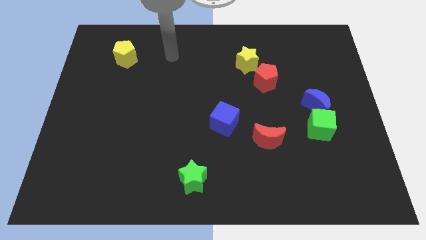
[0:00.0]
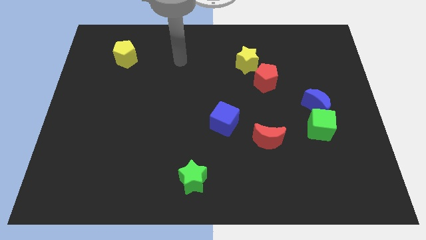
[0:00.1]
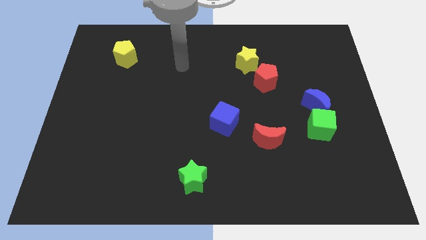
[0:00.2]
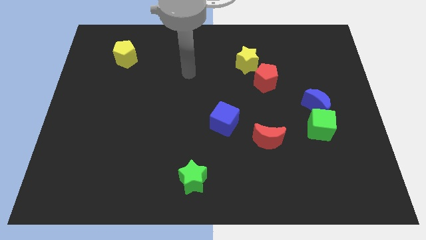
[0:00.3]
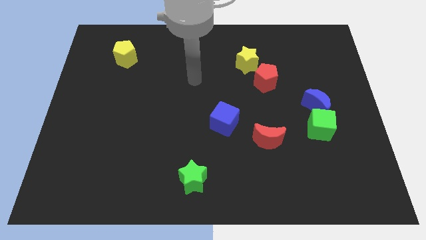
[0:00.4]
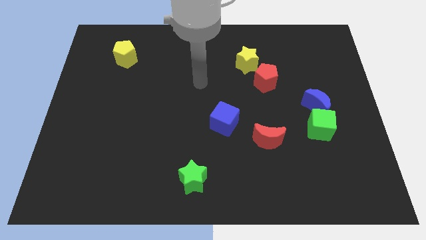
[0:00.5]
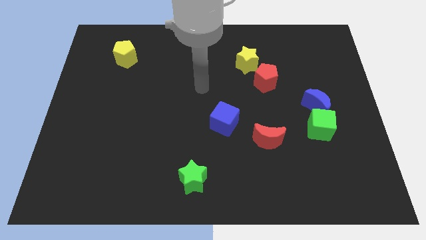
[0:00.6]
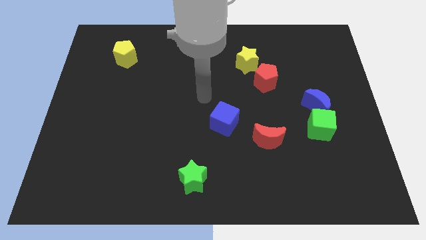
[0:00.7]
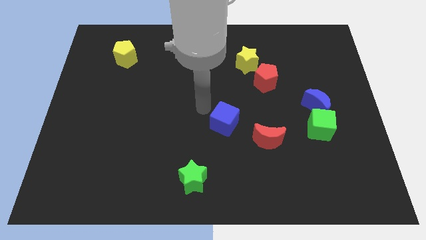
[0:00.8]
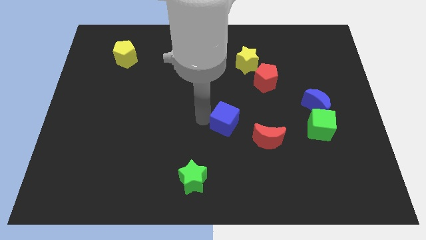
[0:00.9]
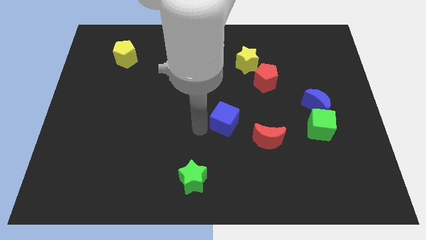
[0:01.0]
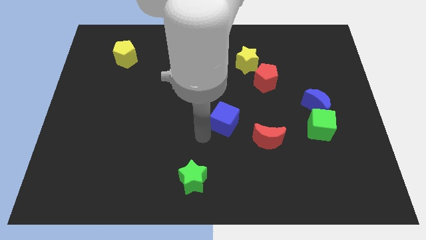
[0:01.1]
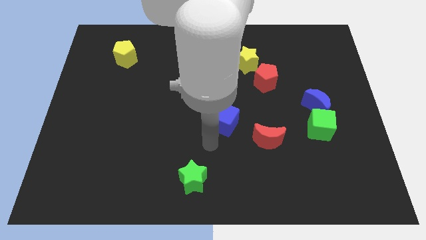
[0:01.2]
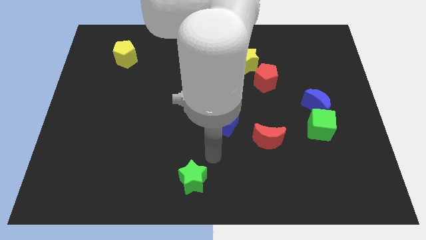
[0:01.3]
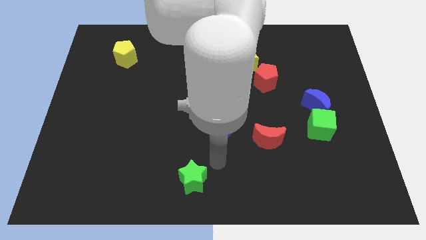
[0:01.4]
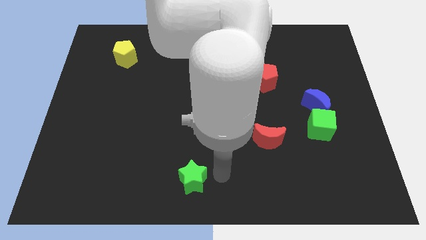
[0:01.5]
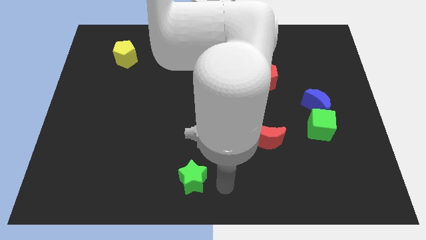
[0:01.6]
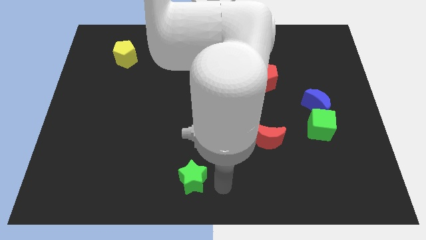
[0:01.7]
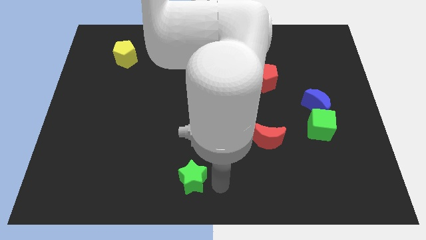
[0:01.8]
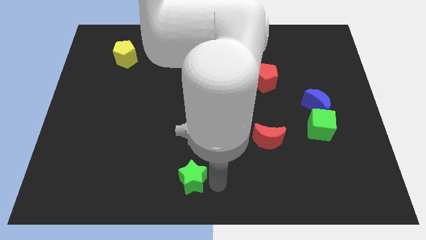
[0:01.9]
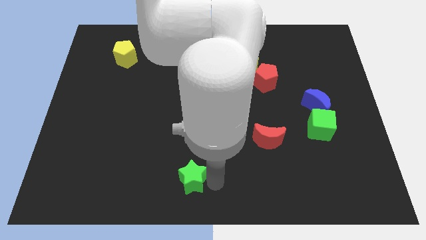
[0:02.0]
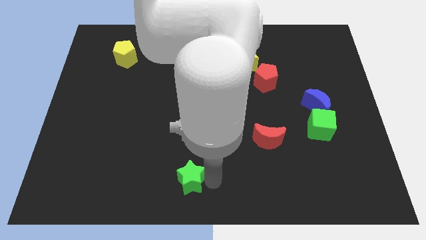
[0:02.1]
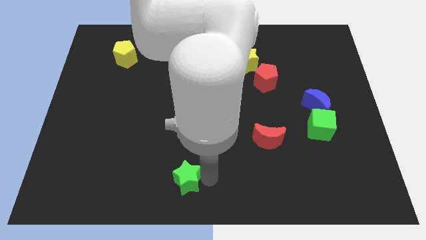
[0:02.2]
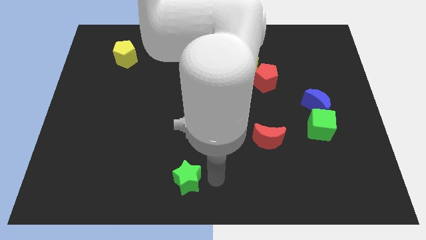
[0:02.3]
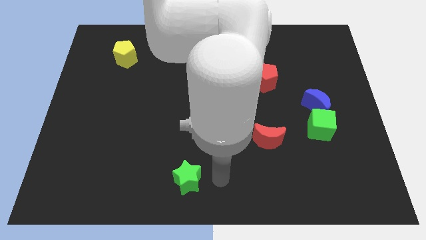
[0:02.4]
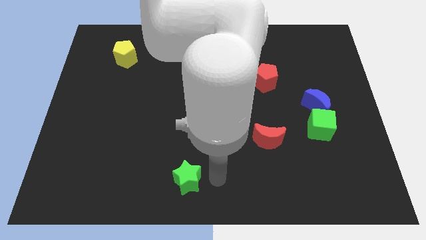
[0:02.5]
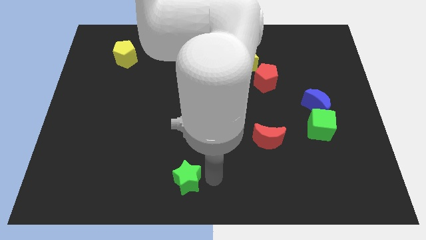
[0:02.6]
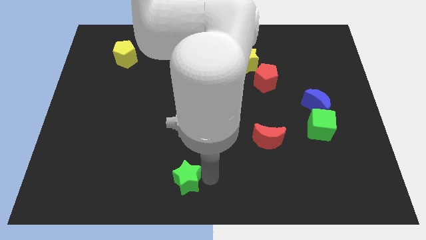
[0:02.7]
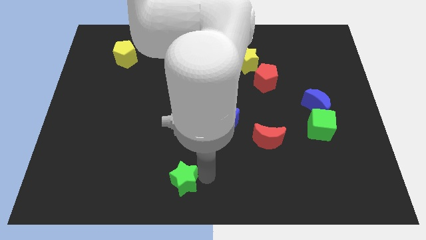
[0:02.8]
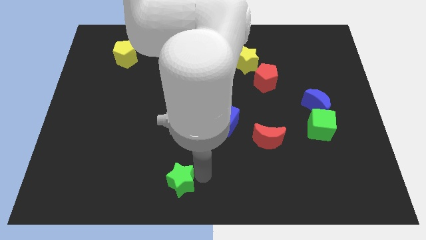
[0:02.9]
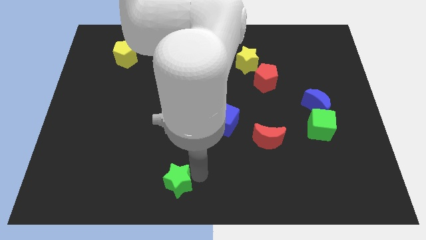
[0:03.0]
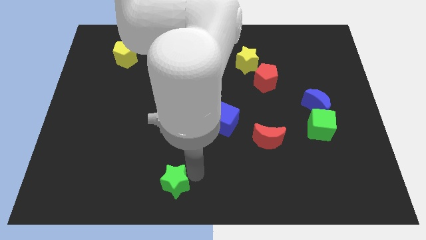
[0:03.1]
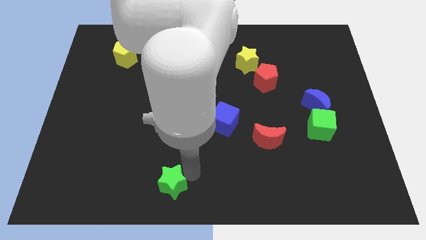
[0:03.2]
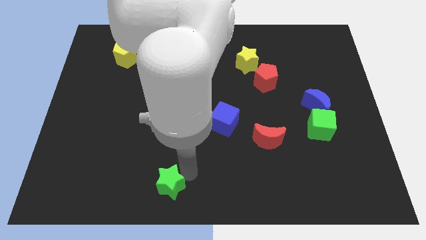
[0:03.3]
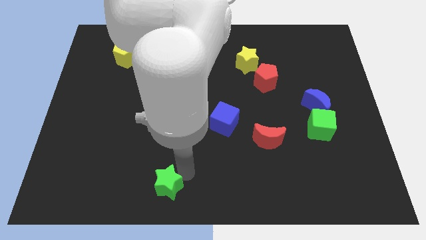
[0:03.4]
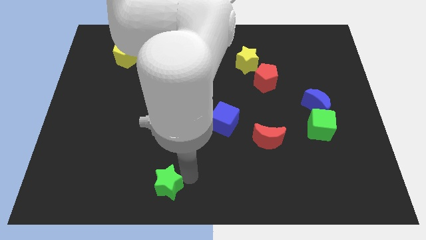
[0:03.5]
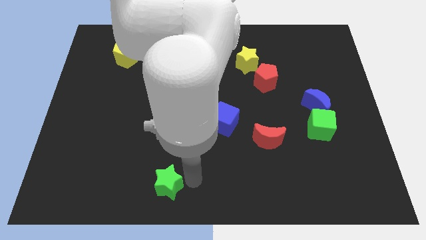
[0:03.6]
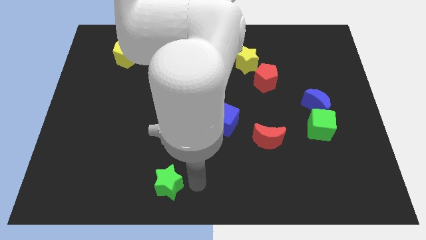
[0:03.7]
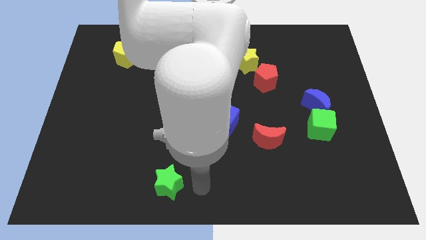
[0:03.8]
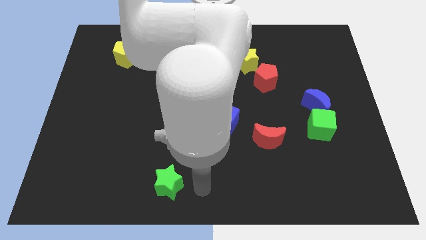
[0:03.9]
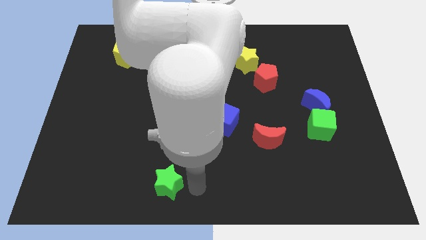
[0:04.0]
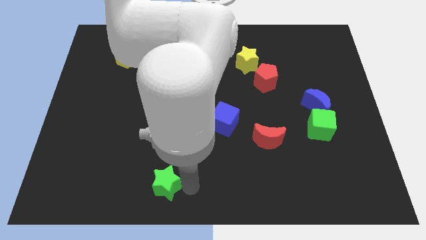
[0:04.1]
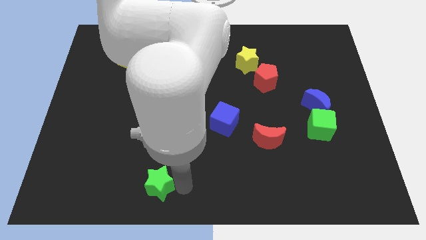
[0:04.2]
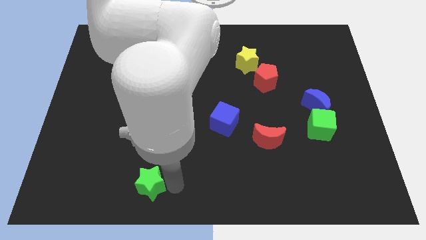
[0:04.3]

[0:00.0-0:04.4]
slide the green star somewhat left

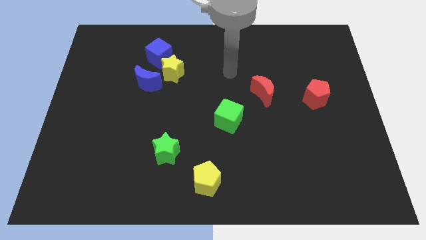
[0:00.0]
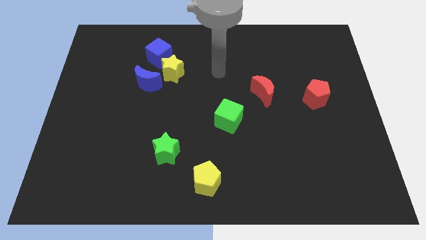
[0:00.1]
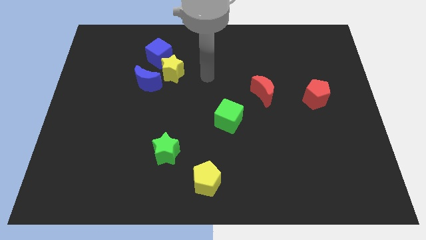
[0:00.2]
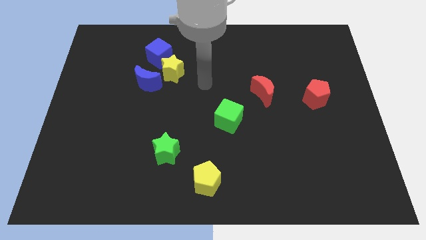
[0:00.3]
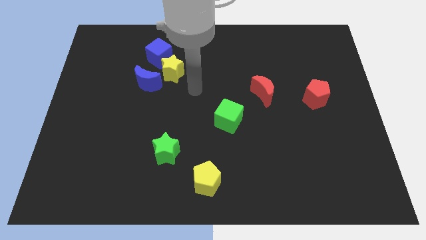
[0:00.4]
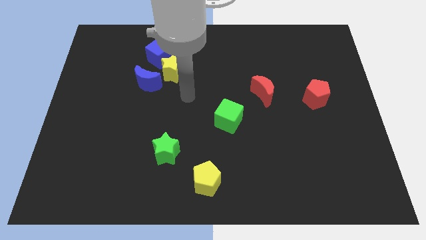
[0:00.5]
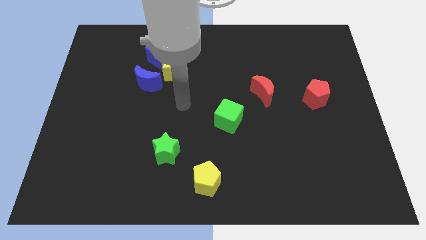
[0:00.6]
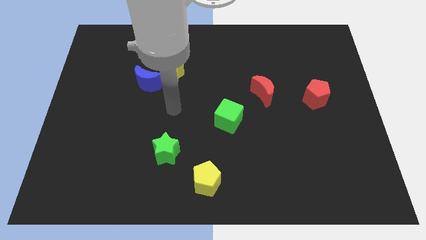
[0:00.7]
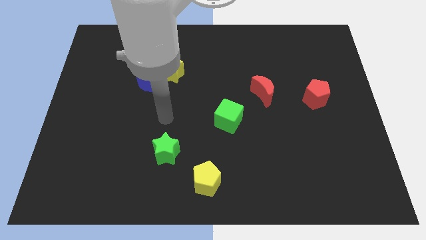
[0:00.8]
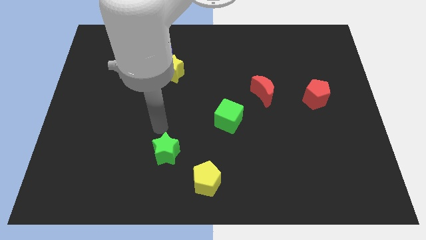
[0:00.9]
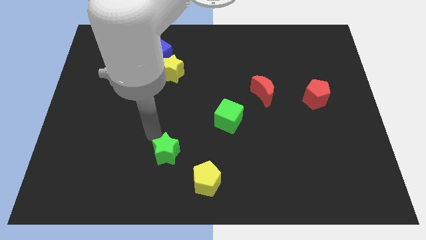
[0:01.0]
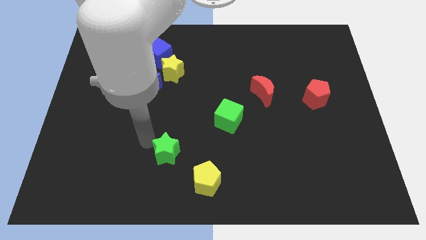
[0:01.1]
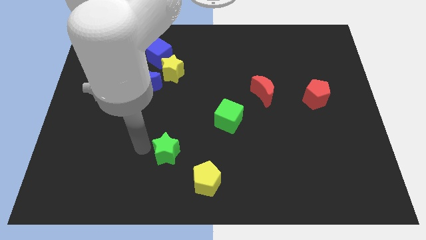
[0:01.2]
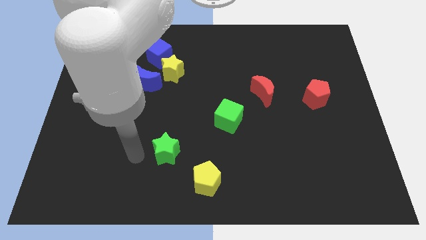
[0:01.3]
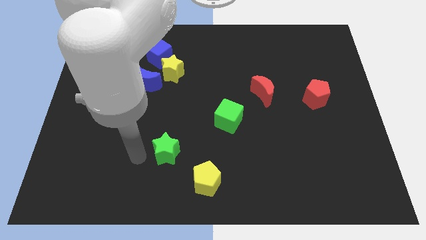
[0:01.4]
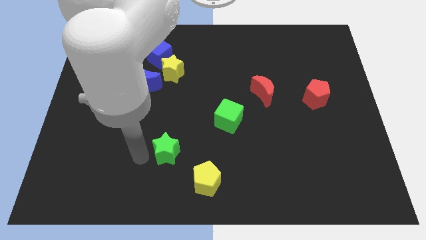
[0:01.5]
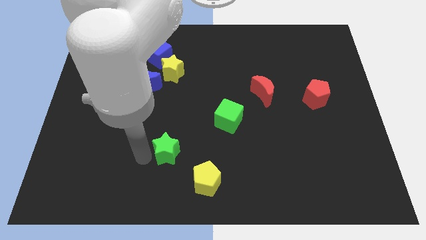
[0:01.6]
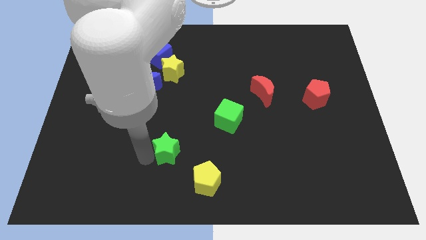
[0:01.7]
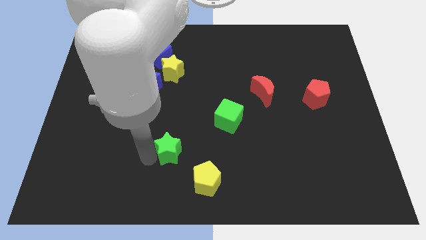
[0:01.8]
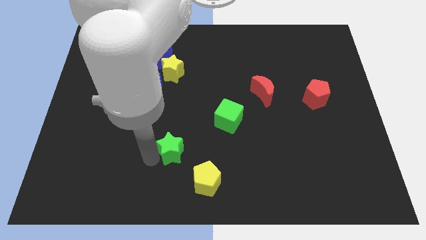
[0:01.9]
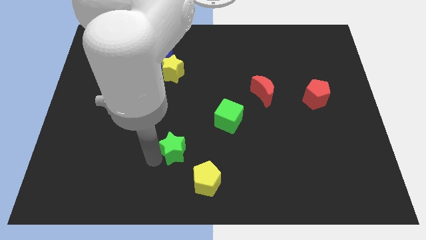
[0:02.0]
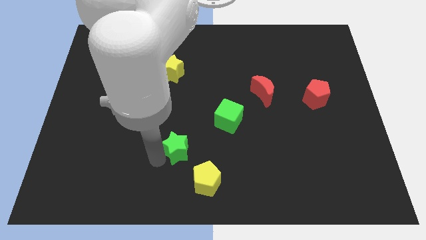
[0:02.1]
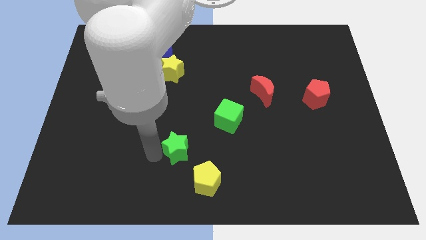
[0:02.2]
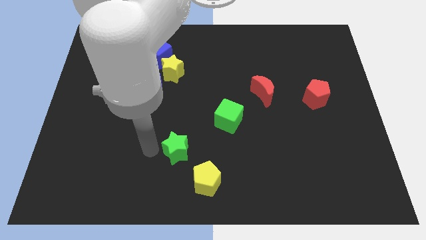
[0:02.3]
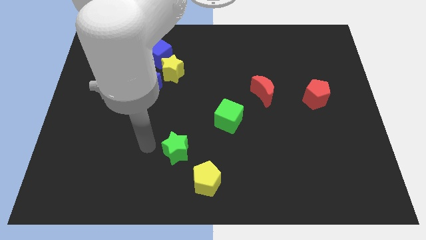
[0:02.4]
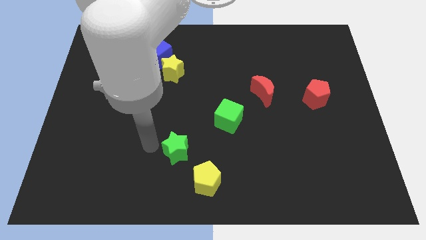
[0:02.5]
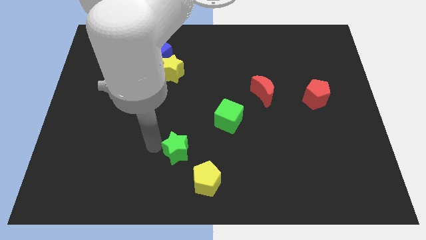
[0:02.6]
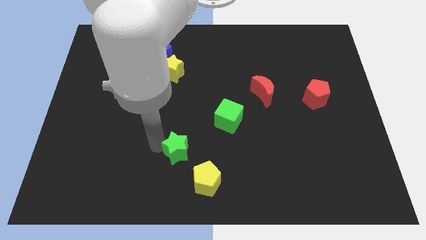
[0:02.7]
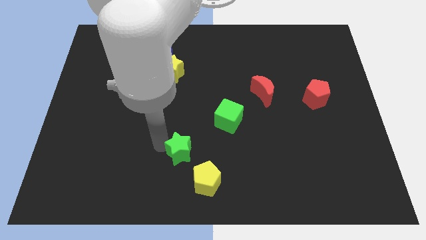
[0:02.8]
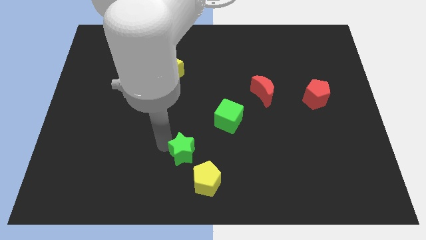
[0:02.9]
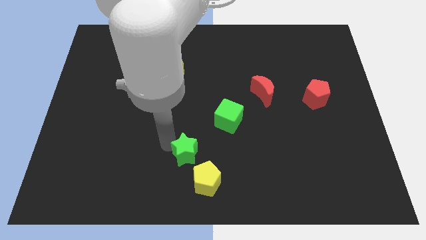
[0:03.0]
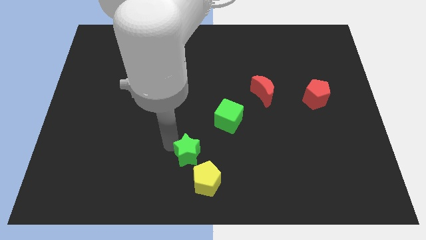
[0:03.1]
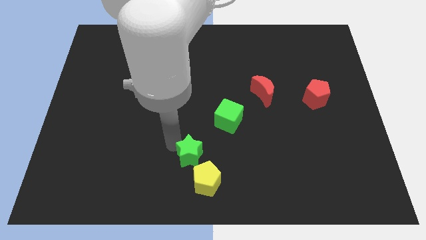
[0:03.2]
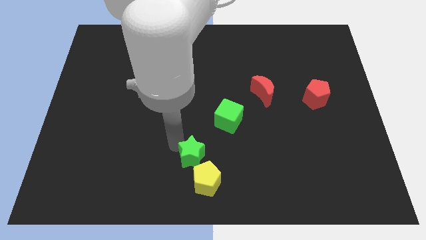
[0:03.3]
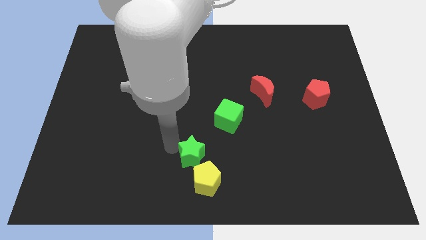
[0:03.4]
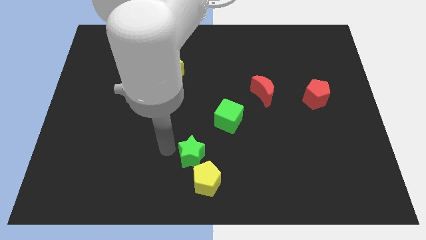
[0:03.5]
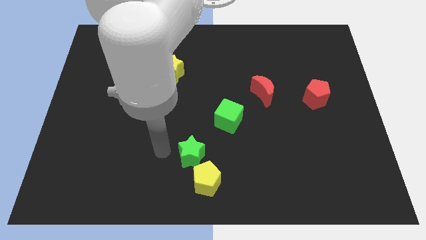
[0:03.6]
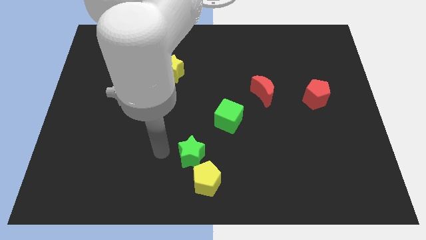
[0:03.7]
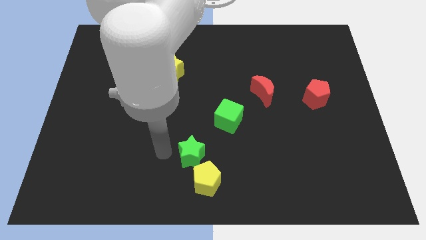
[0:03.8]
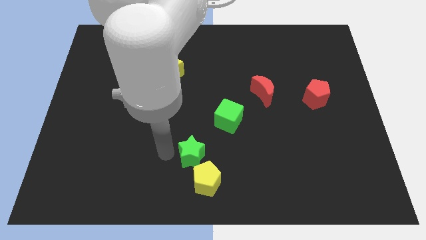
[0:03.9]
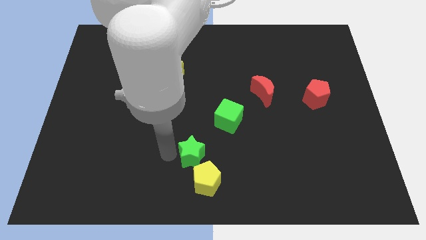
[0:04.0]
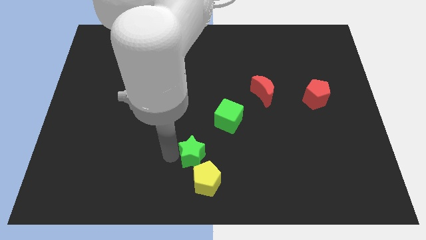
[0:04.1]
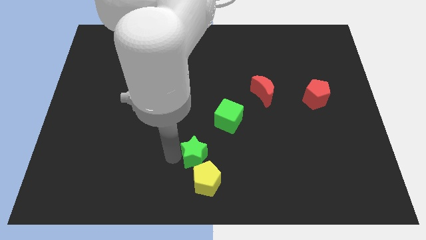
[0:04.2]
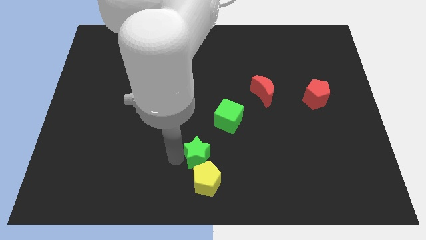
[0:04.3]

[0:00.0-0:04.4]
slide the green star a little right
